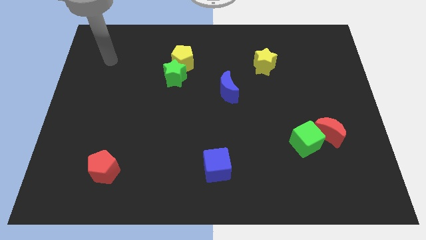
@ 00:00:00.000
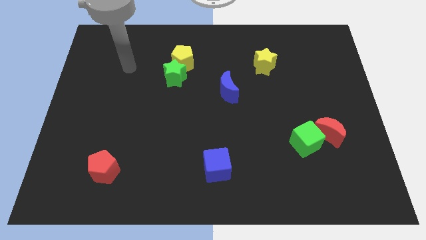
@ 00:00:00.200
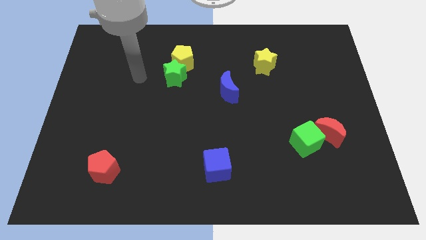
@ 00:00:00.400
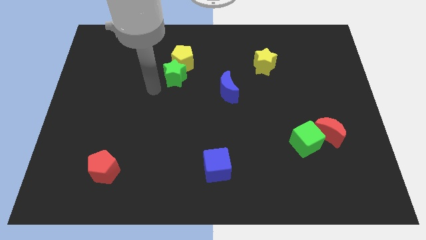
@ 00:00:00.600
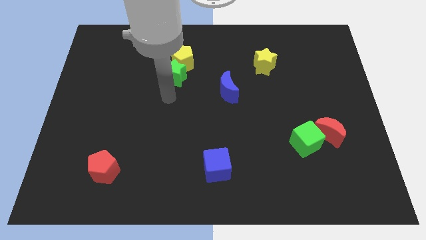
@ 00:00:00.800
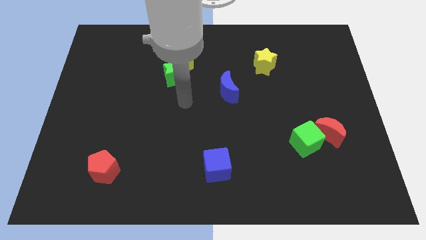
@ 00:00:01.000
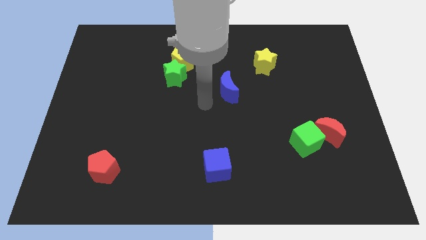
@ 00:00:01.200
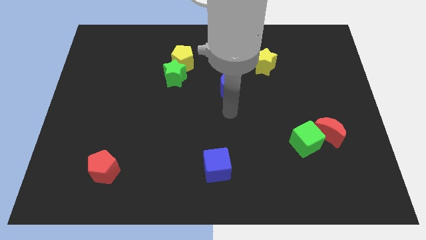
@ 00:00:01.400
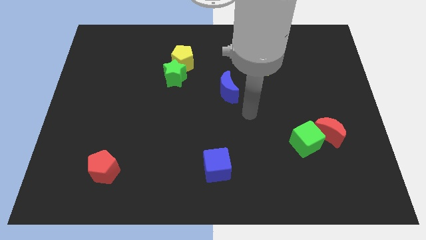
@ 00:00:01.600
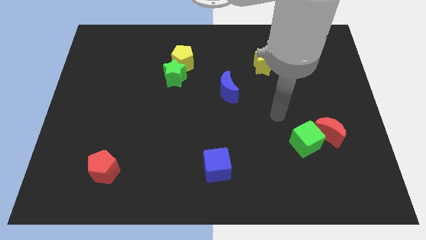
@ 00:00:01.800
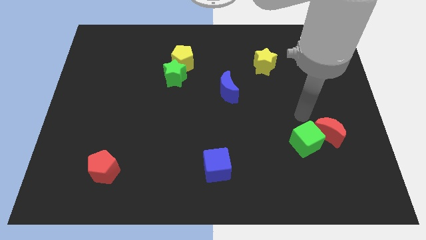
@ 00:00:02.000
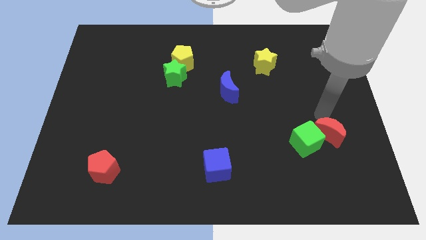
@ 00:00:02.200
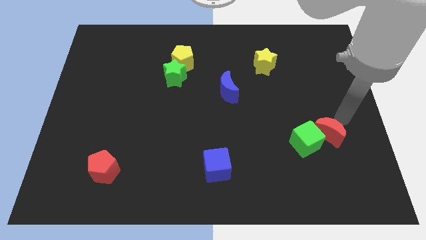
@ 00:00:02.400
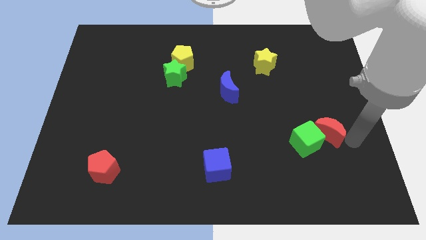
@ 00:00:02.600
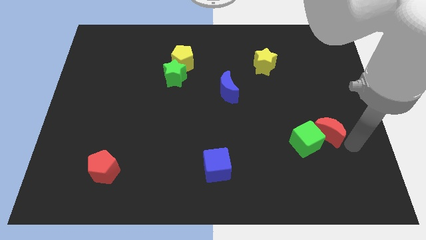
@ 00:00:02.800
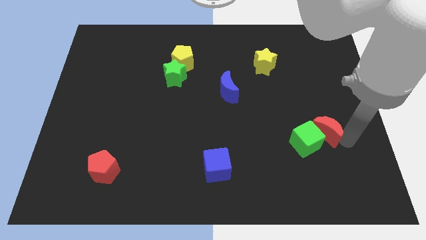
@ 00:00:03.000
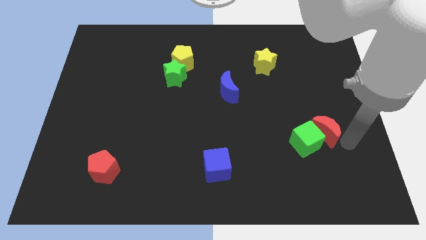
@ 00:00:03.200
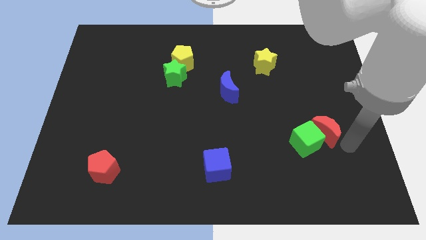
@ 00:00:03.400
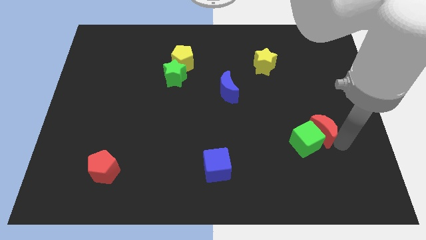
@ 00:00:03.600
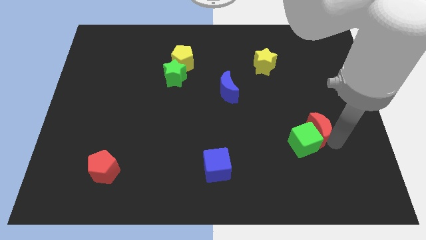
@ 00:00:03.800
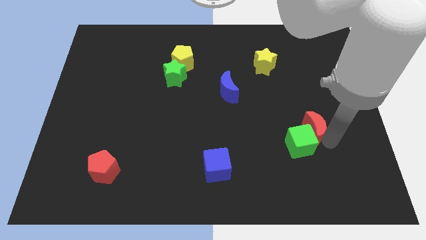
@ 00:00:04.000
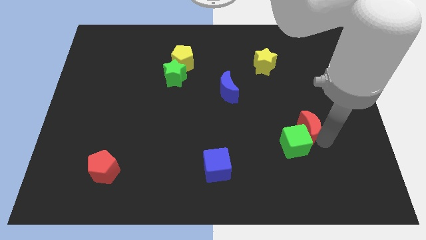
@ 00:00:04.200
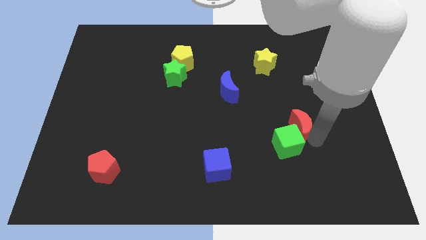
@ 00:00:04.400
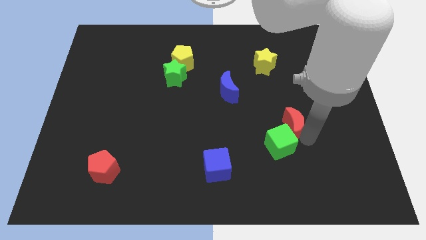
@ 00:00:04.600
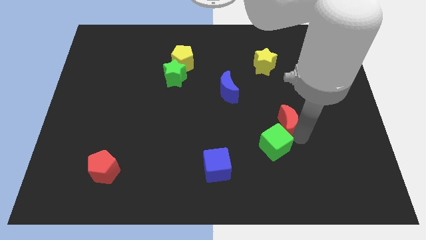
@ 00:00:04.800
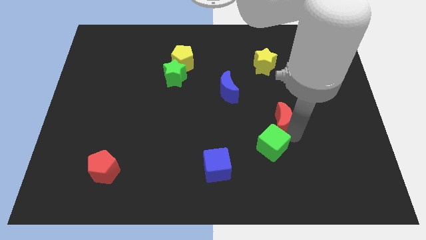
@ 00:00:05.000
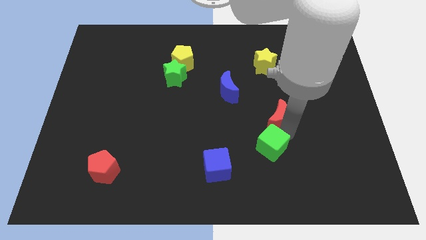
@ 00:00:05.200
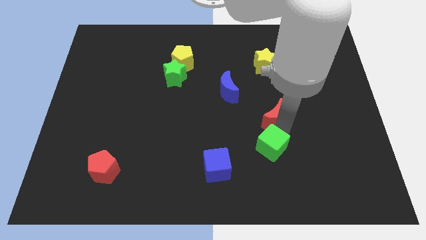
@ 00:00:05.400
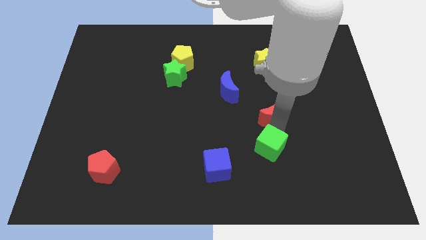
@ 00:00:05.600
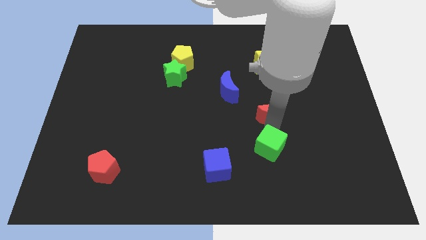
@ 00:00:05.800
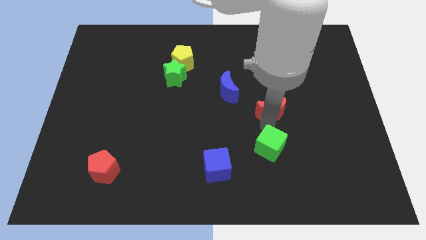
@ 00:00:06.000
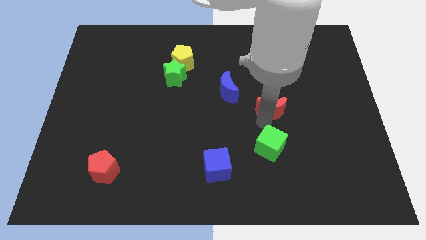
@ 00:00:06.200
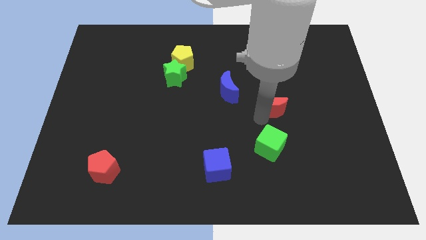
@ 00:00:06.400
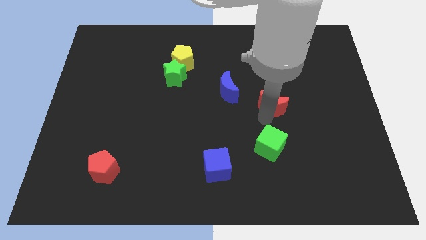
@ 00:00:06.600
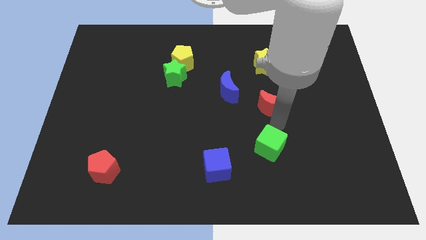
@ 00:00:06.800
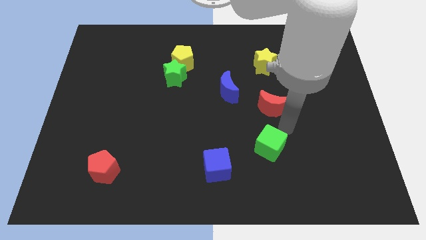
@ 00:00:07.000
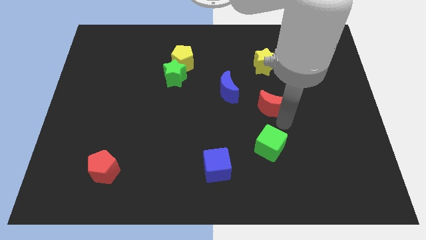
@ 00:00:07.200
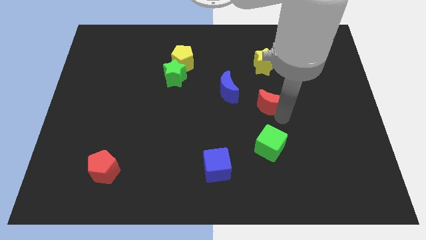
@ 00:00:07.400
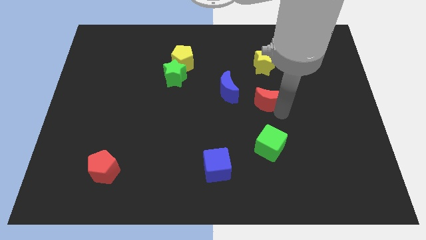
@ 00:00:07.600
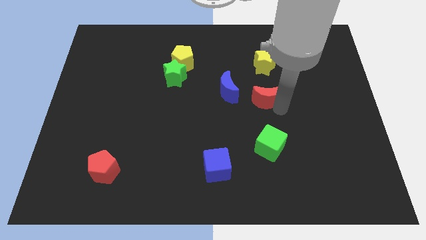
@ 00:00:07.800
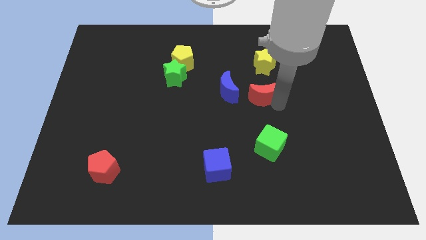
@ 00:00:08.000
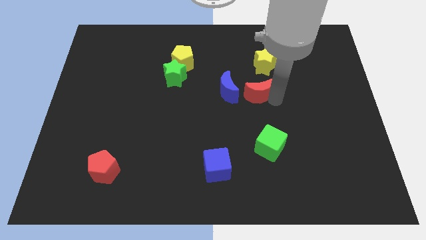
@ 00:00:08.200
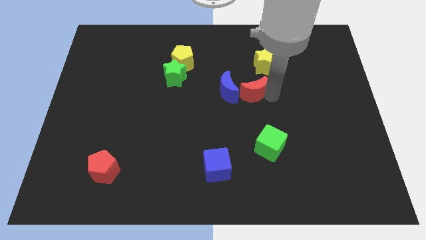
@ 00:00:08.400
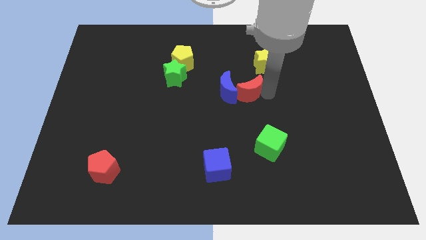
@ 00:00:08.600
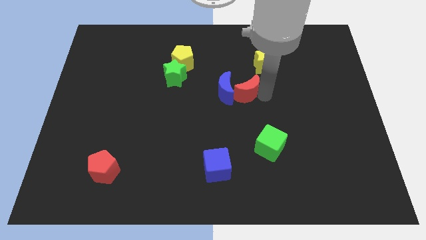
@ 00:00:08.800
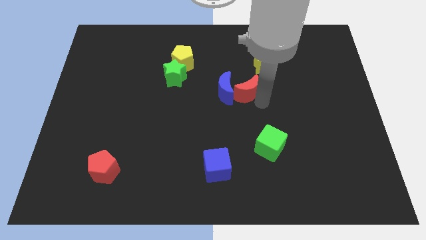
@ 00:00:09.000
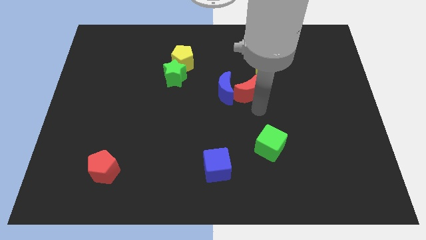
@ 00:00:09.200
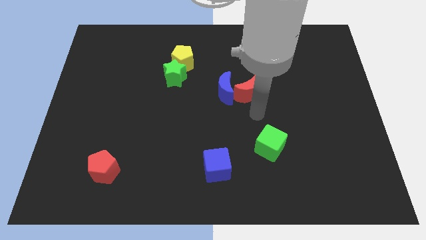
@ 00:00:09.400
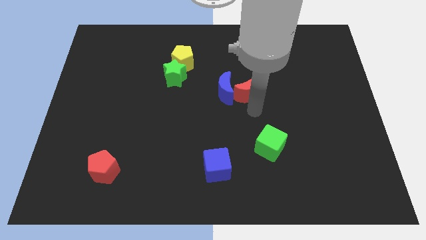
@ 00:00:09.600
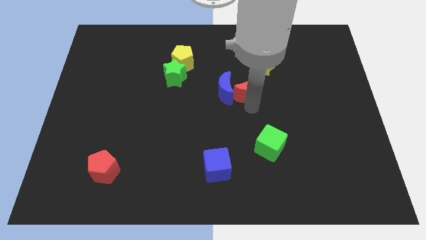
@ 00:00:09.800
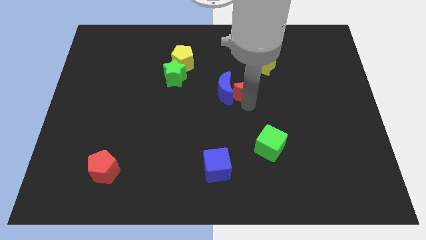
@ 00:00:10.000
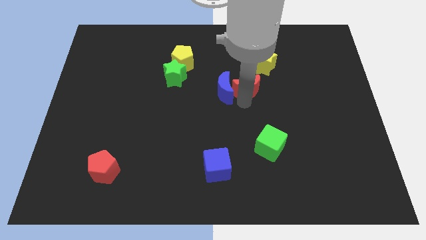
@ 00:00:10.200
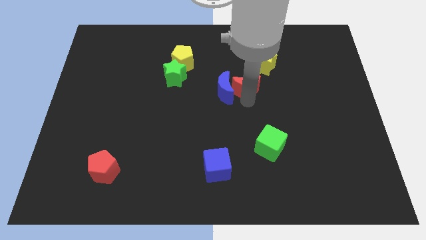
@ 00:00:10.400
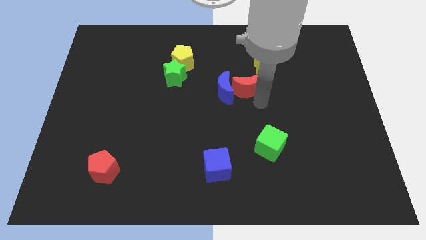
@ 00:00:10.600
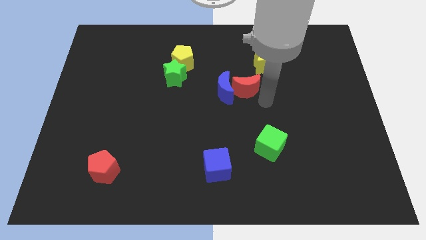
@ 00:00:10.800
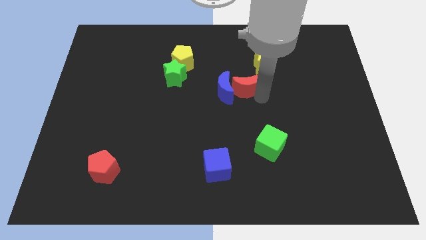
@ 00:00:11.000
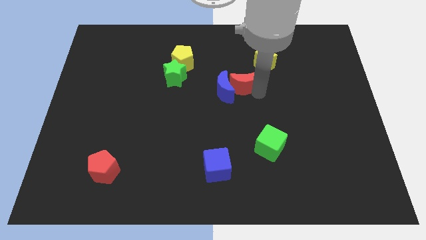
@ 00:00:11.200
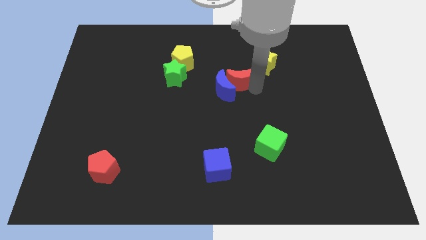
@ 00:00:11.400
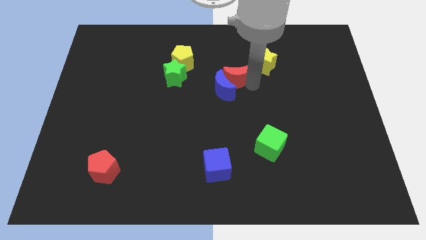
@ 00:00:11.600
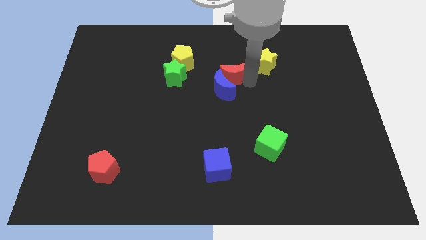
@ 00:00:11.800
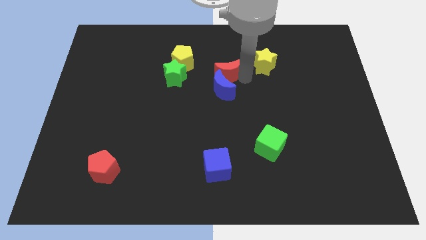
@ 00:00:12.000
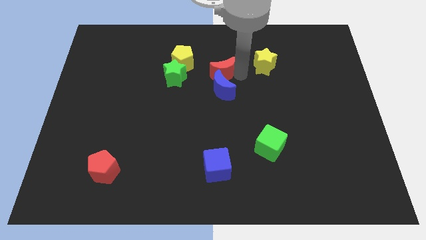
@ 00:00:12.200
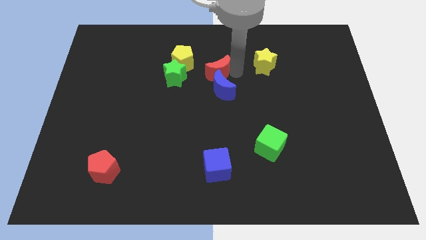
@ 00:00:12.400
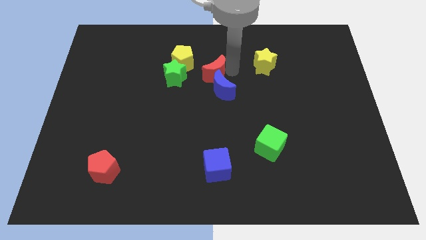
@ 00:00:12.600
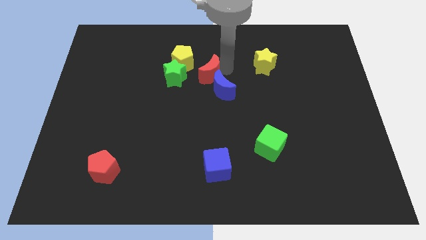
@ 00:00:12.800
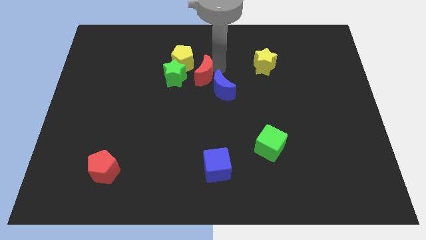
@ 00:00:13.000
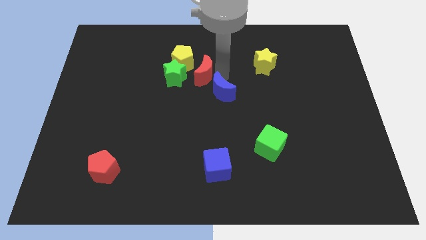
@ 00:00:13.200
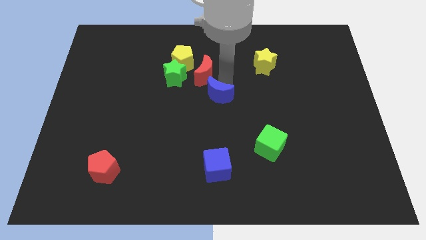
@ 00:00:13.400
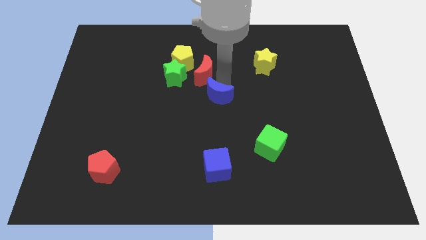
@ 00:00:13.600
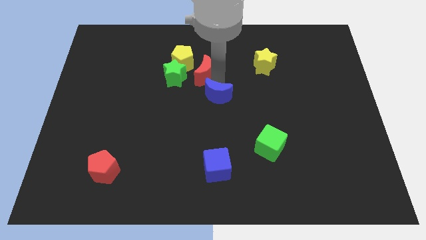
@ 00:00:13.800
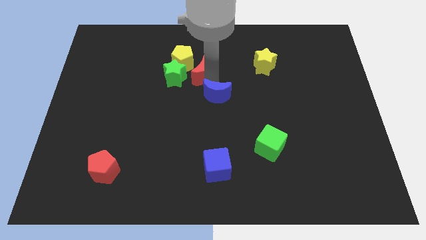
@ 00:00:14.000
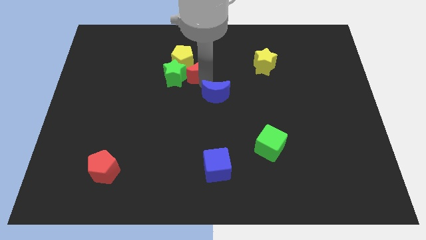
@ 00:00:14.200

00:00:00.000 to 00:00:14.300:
push the red moon to the yellow pentagon

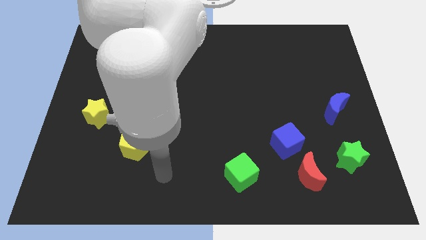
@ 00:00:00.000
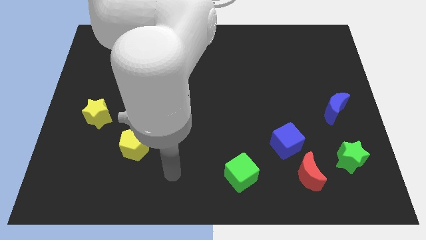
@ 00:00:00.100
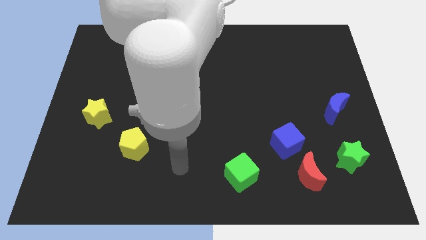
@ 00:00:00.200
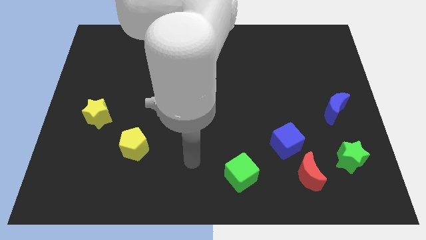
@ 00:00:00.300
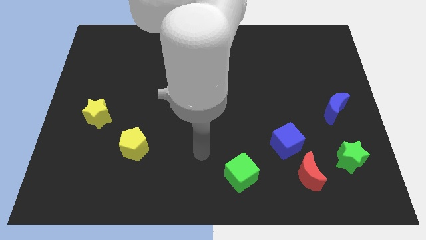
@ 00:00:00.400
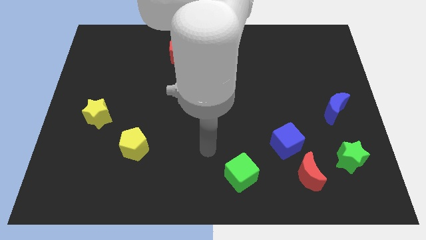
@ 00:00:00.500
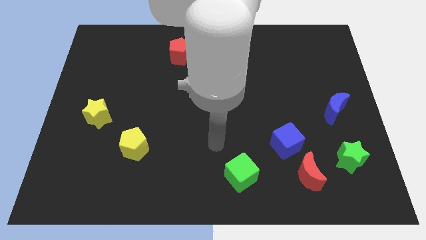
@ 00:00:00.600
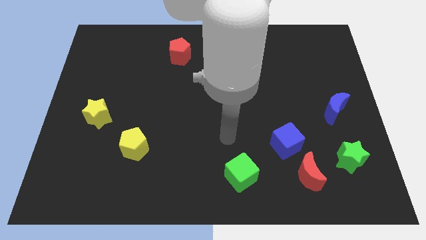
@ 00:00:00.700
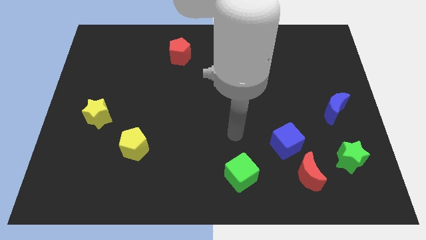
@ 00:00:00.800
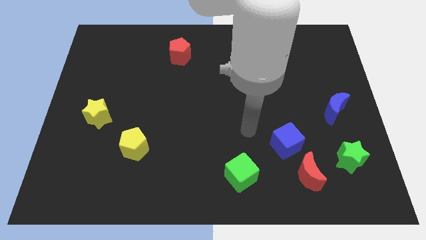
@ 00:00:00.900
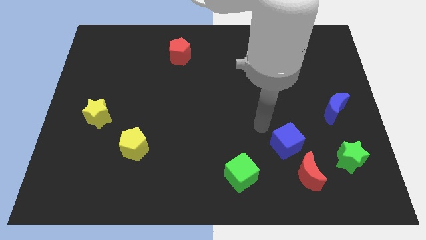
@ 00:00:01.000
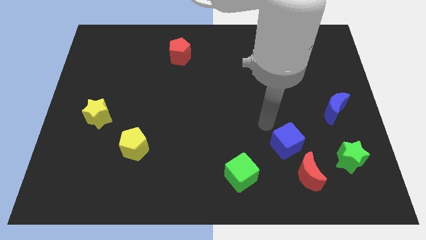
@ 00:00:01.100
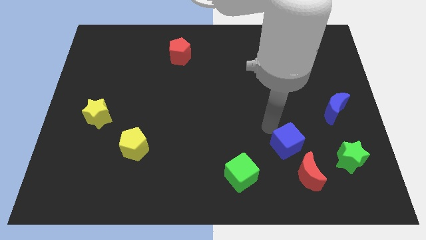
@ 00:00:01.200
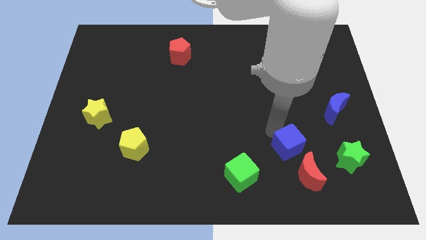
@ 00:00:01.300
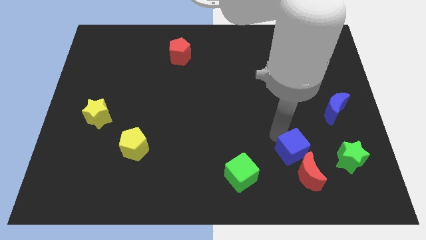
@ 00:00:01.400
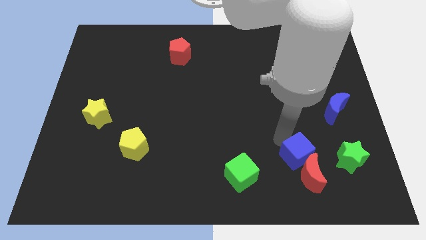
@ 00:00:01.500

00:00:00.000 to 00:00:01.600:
slide the blue cube towards the red moon
